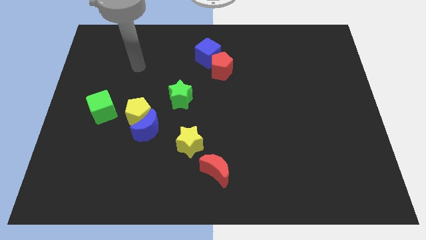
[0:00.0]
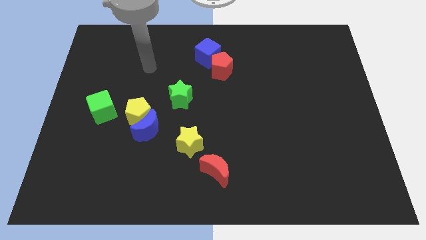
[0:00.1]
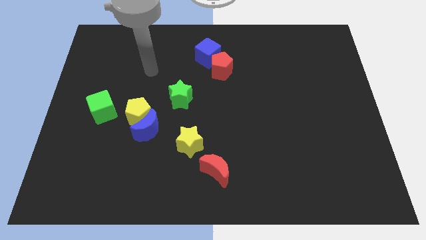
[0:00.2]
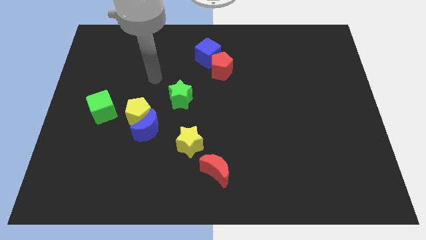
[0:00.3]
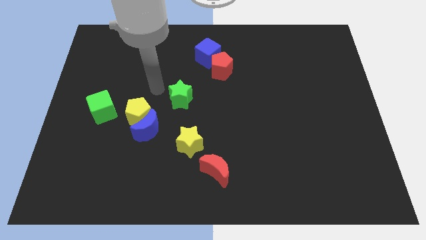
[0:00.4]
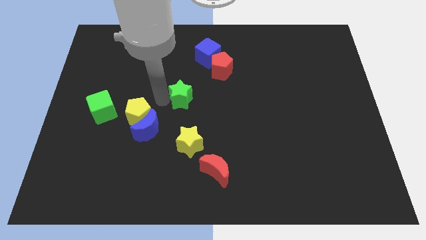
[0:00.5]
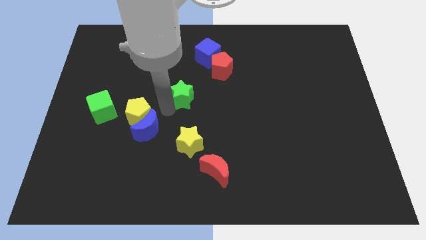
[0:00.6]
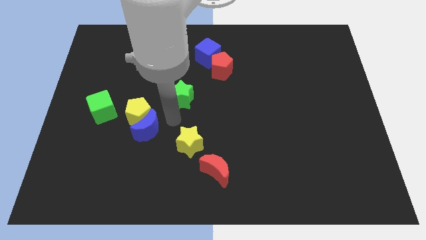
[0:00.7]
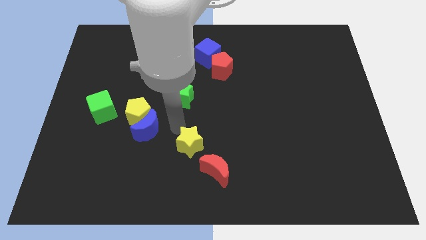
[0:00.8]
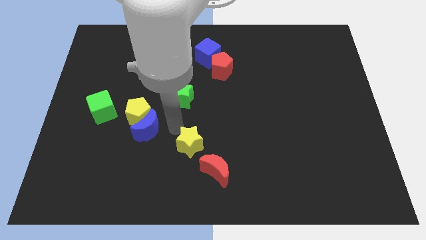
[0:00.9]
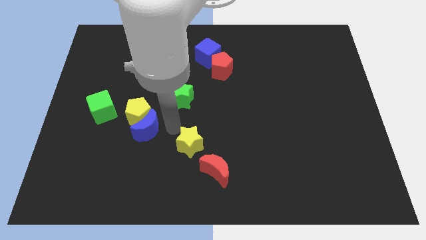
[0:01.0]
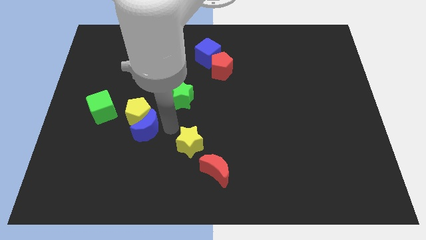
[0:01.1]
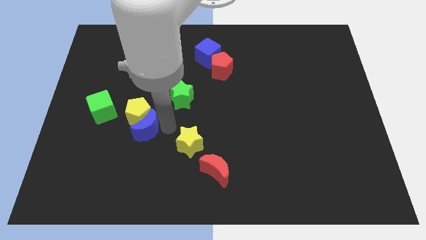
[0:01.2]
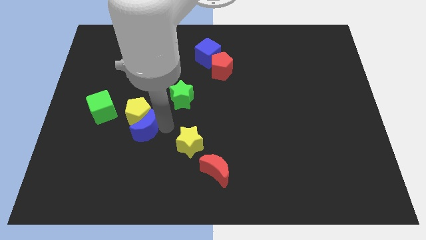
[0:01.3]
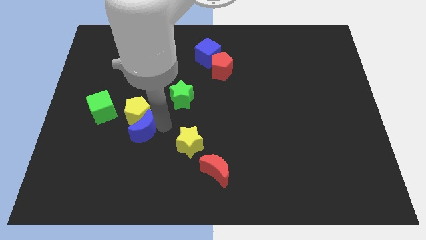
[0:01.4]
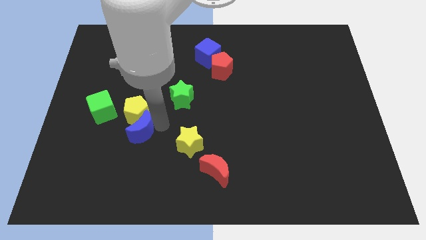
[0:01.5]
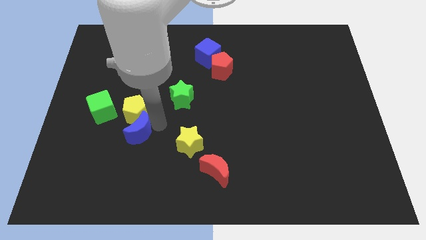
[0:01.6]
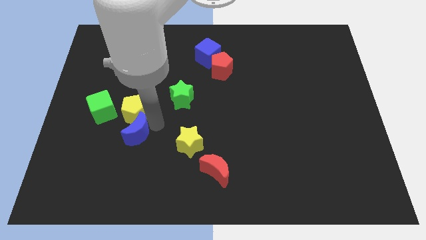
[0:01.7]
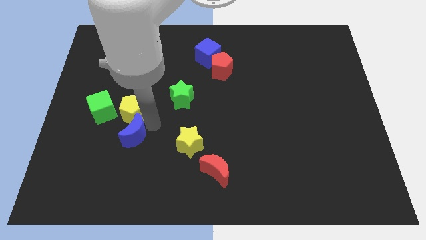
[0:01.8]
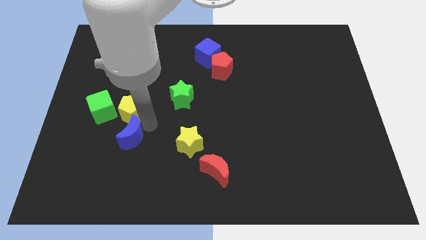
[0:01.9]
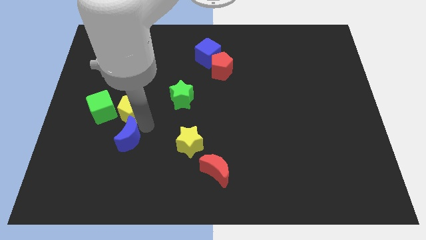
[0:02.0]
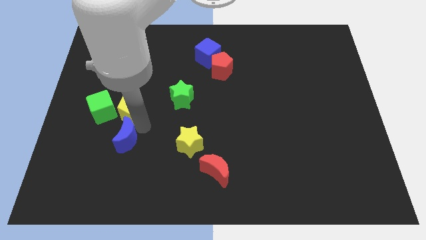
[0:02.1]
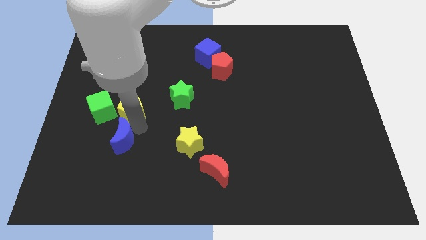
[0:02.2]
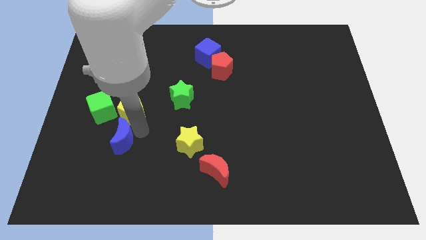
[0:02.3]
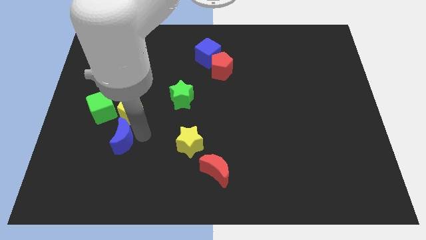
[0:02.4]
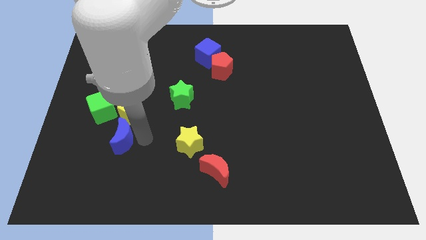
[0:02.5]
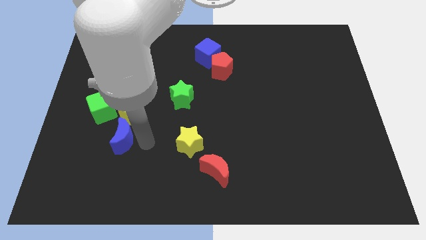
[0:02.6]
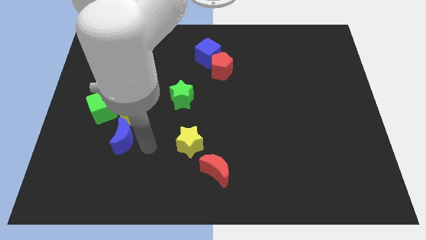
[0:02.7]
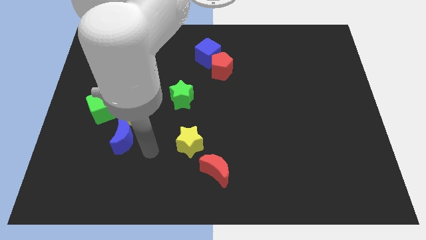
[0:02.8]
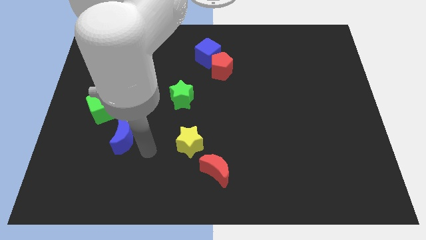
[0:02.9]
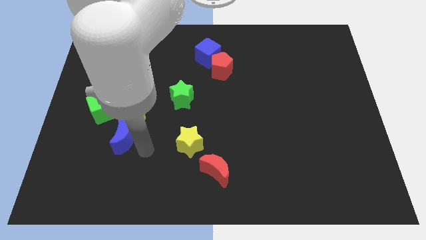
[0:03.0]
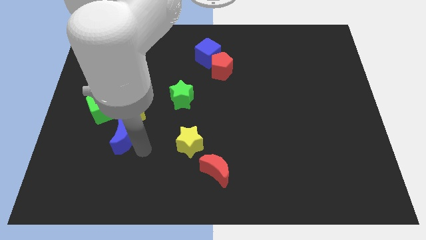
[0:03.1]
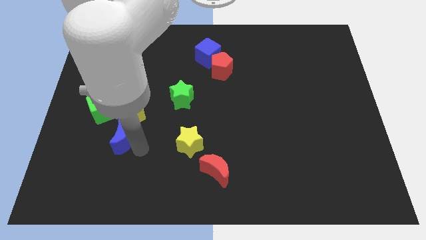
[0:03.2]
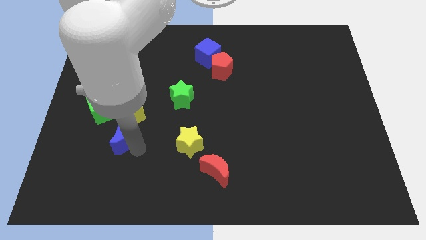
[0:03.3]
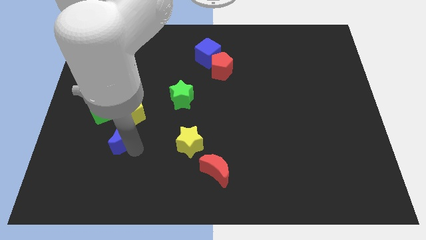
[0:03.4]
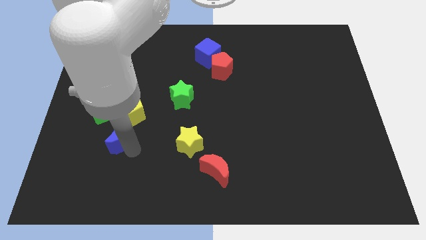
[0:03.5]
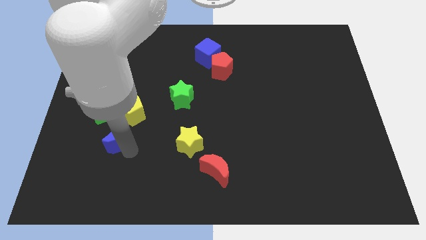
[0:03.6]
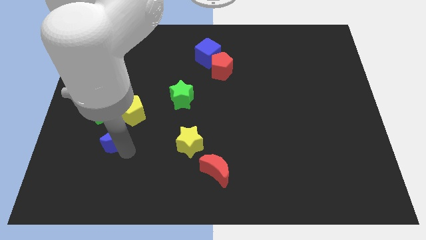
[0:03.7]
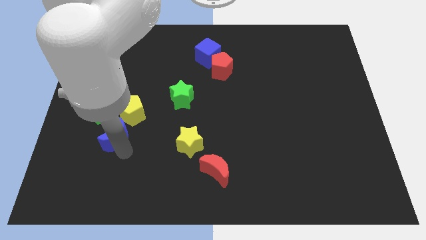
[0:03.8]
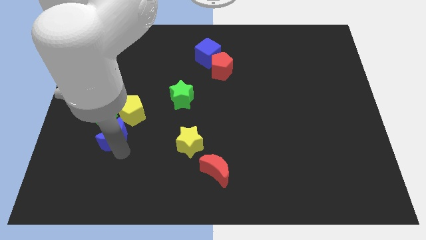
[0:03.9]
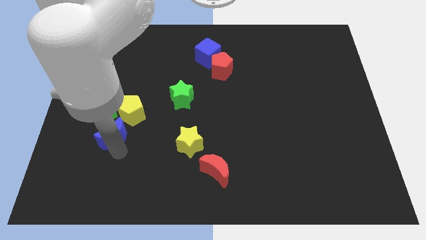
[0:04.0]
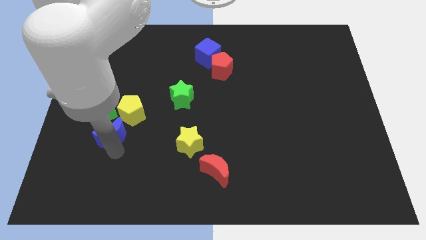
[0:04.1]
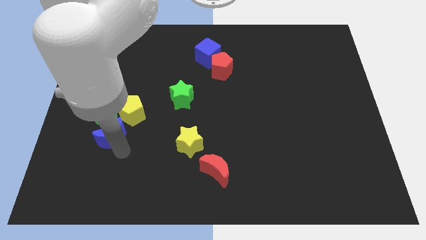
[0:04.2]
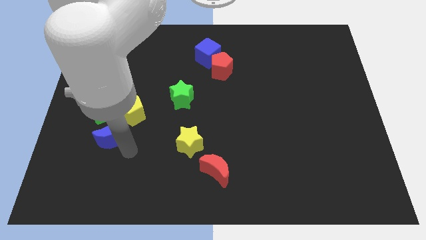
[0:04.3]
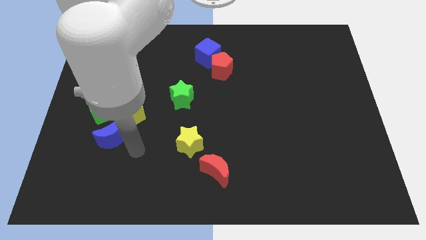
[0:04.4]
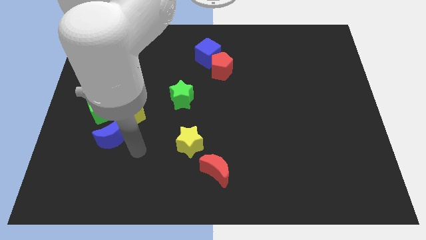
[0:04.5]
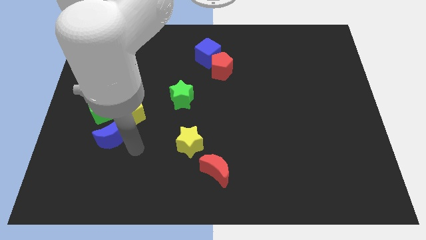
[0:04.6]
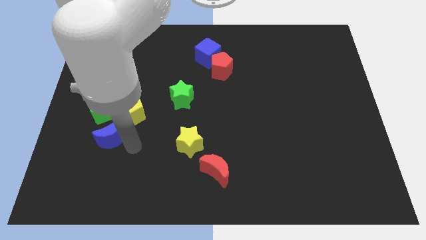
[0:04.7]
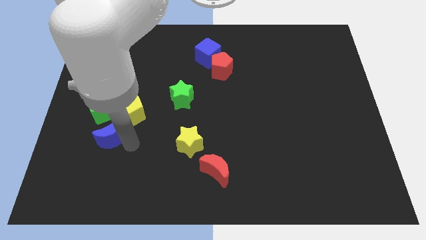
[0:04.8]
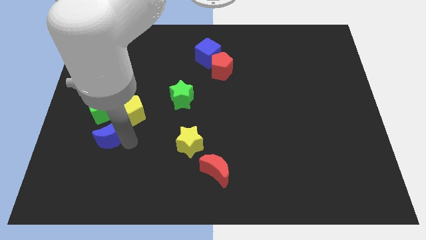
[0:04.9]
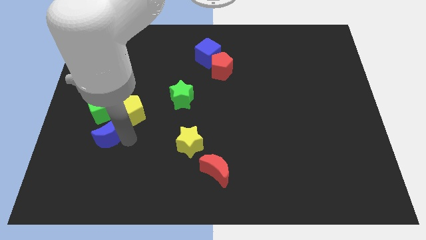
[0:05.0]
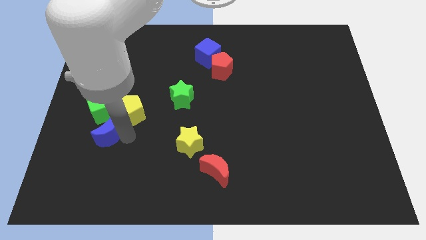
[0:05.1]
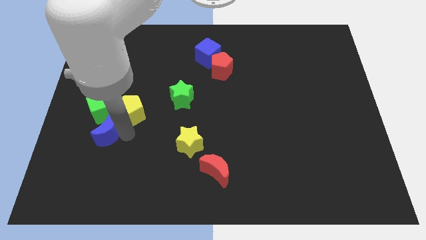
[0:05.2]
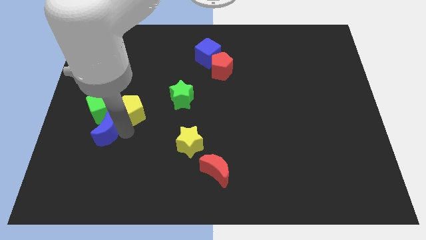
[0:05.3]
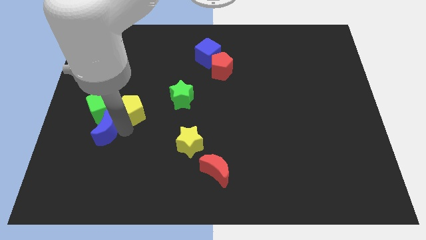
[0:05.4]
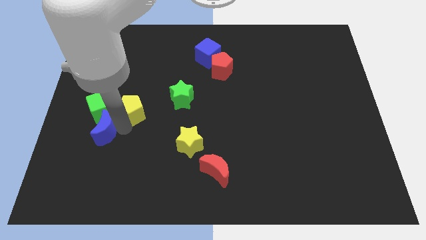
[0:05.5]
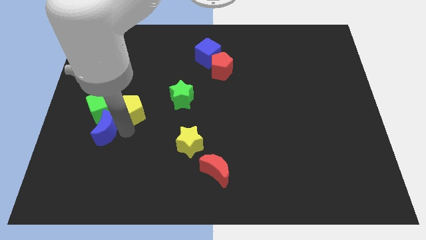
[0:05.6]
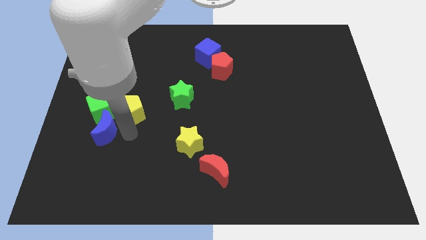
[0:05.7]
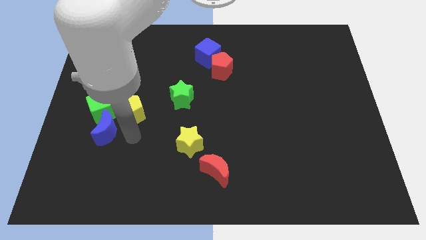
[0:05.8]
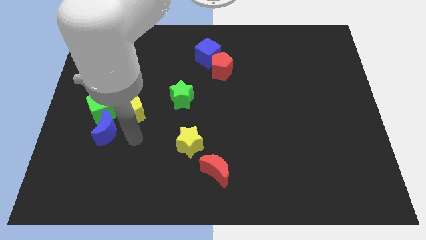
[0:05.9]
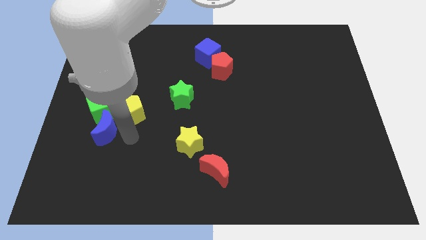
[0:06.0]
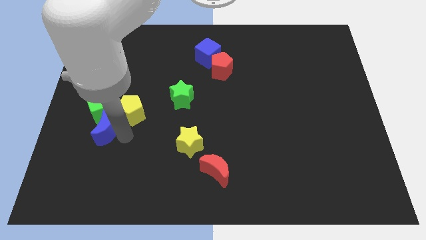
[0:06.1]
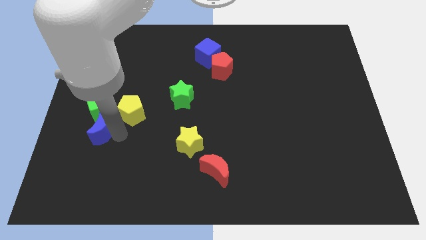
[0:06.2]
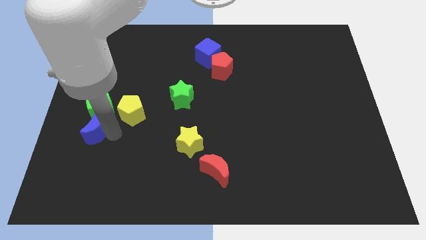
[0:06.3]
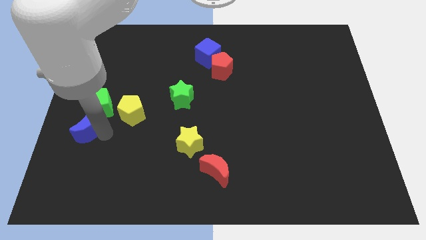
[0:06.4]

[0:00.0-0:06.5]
put the blue moon to the left side of the board
